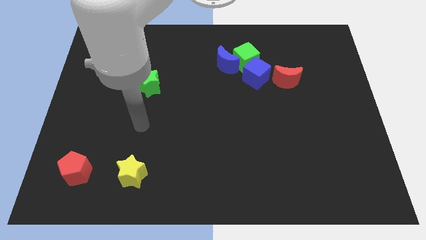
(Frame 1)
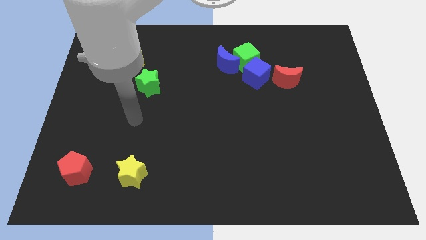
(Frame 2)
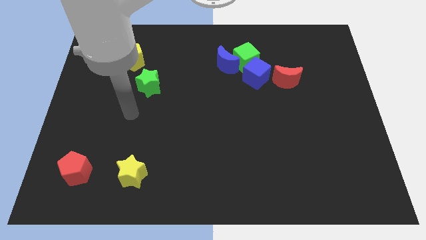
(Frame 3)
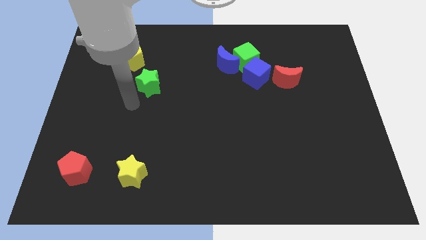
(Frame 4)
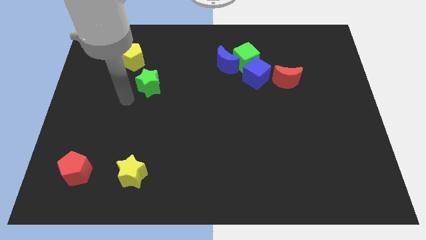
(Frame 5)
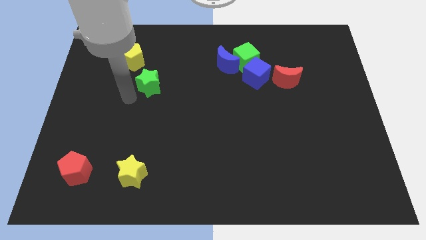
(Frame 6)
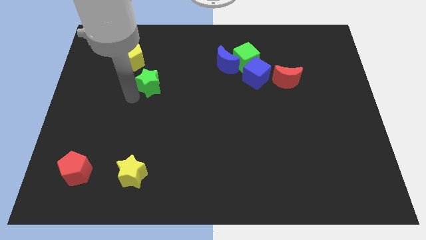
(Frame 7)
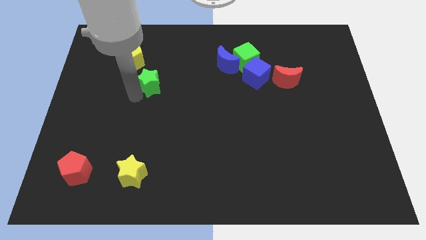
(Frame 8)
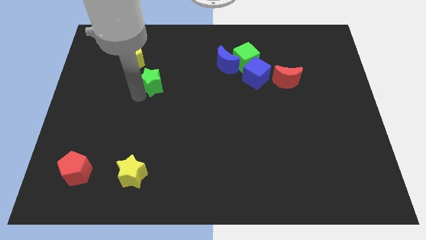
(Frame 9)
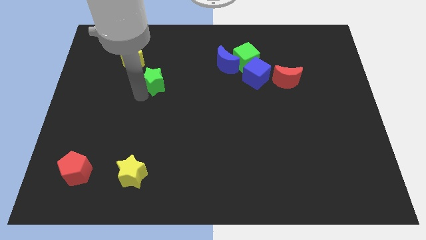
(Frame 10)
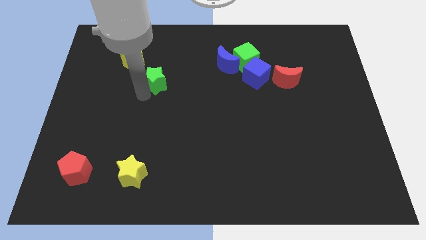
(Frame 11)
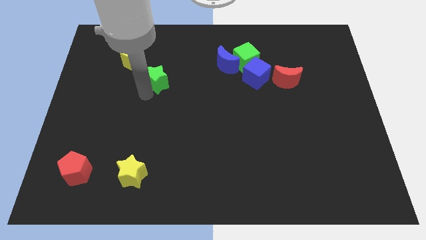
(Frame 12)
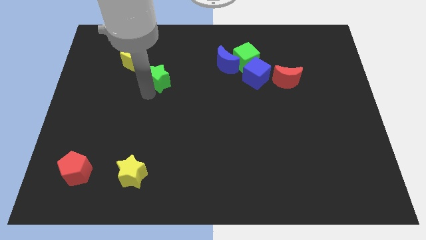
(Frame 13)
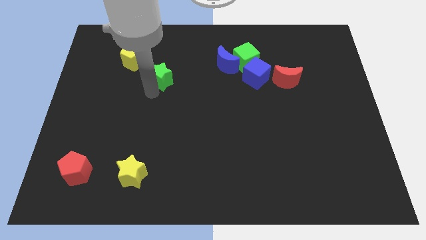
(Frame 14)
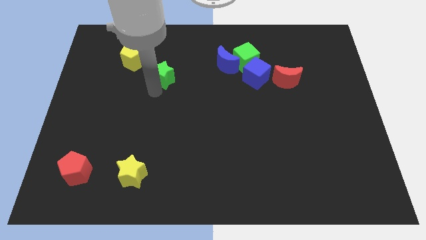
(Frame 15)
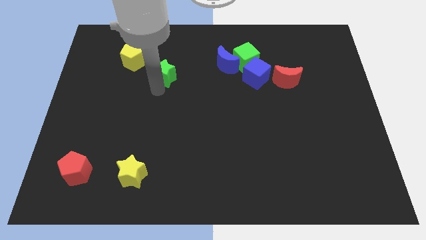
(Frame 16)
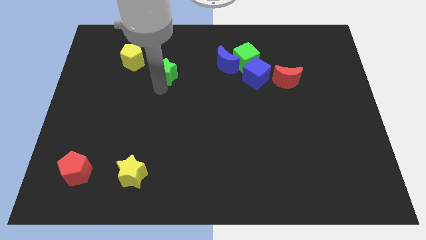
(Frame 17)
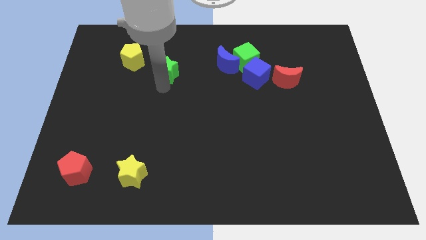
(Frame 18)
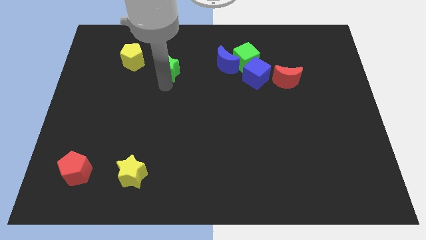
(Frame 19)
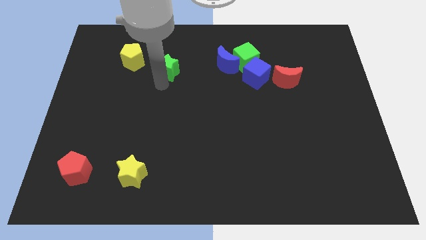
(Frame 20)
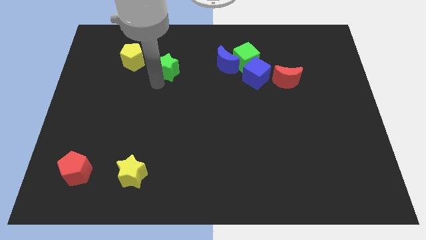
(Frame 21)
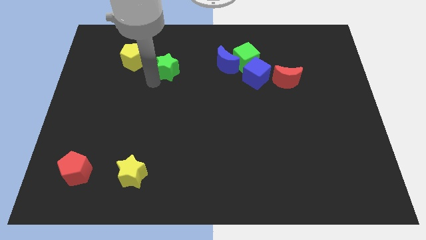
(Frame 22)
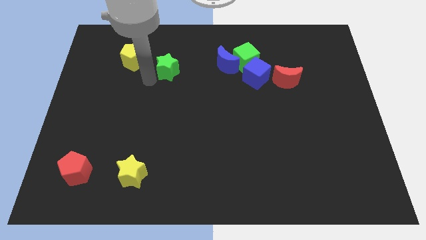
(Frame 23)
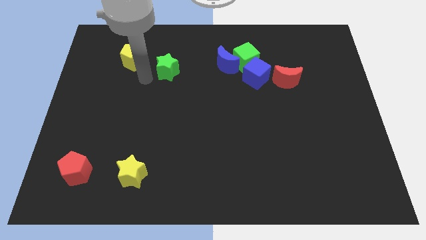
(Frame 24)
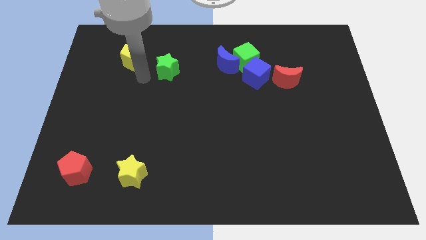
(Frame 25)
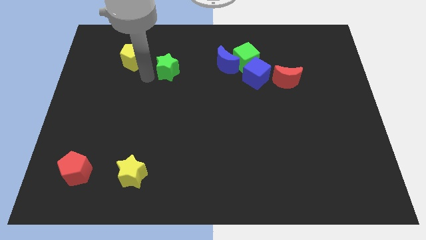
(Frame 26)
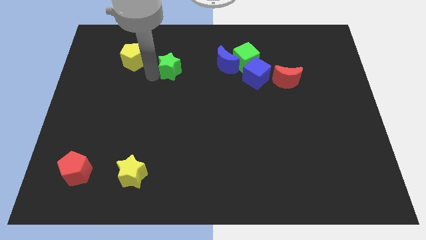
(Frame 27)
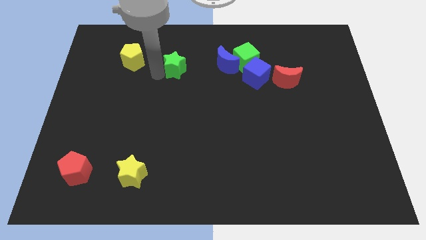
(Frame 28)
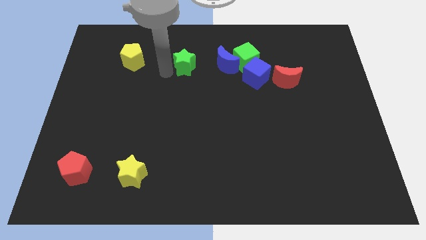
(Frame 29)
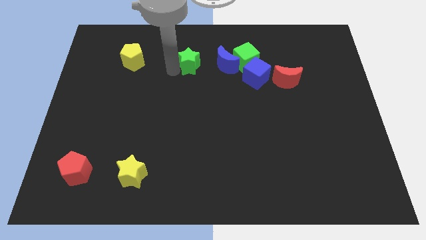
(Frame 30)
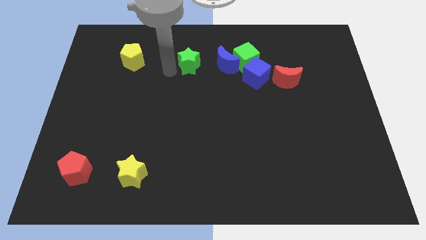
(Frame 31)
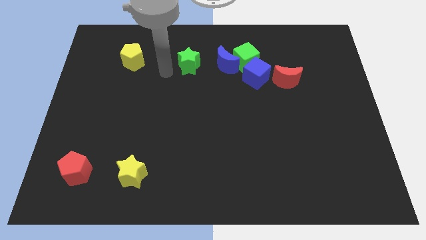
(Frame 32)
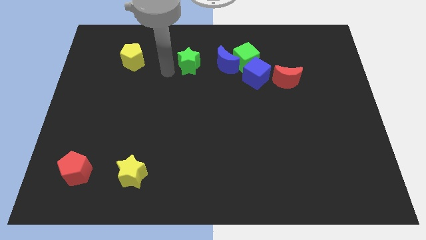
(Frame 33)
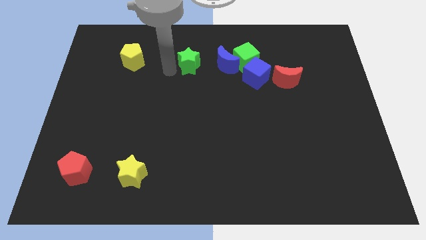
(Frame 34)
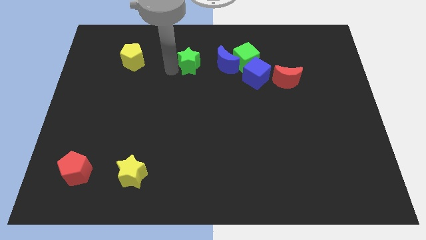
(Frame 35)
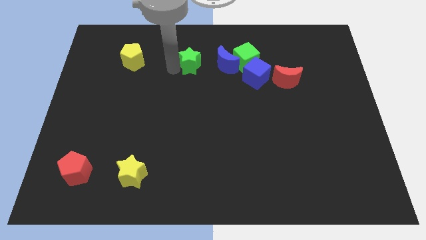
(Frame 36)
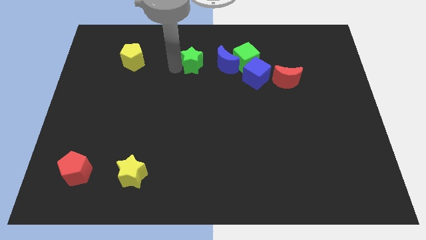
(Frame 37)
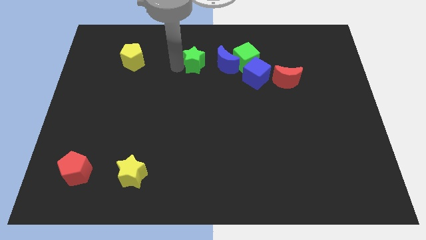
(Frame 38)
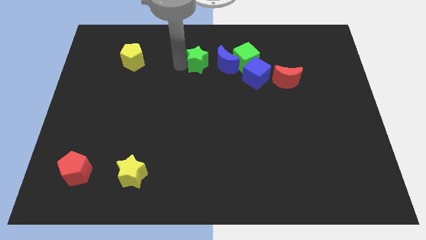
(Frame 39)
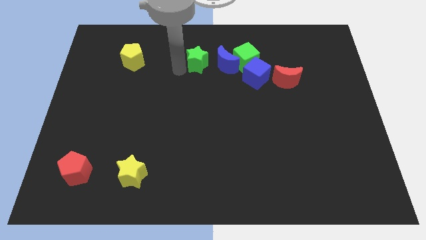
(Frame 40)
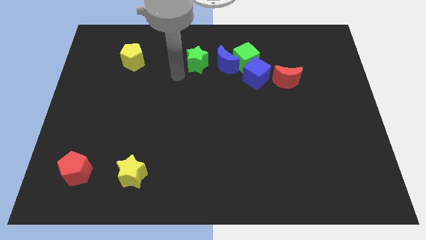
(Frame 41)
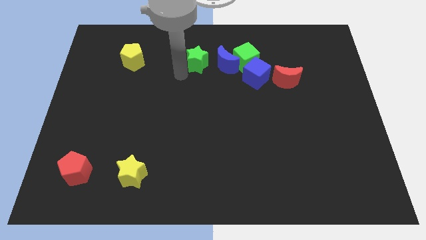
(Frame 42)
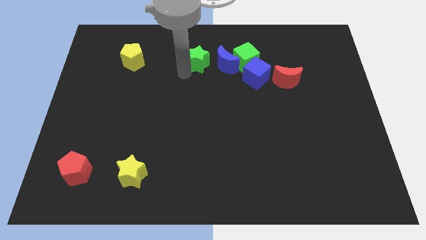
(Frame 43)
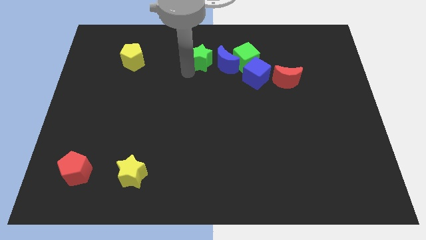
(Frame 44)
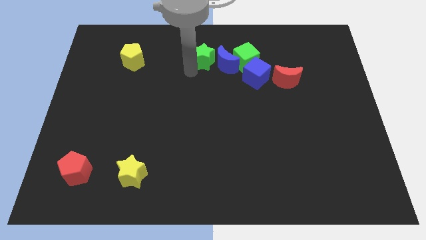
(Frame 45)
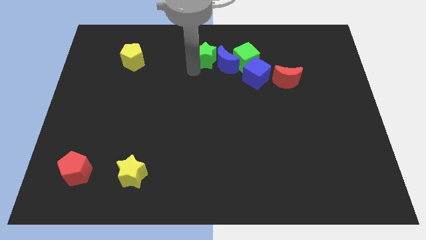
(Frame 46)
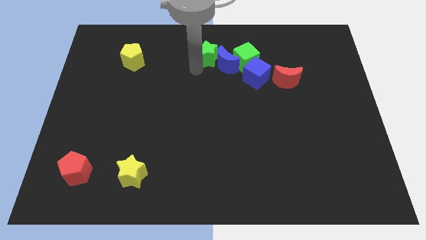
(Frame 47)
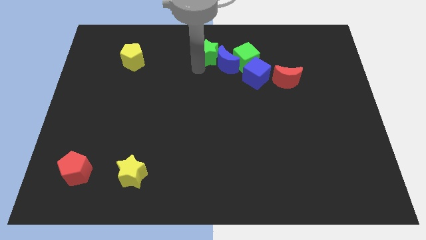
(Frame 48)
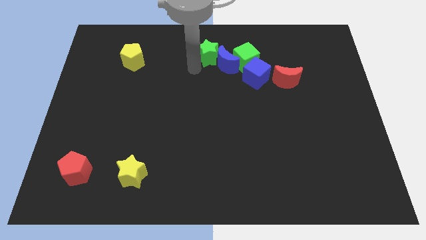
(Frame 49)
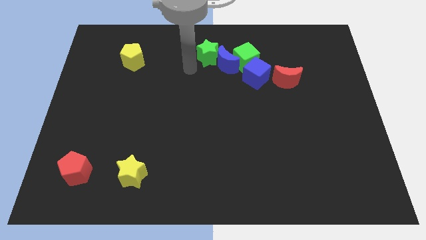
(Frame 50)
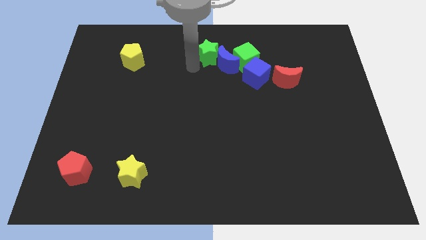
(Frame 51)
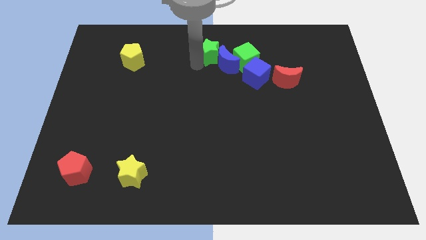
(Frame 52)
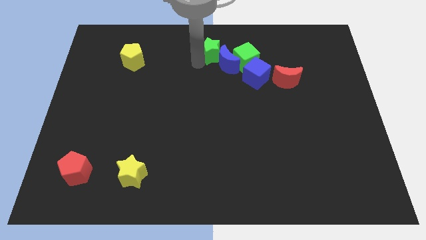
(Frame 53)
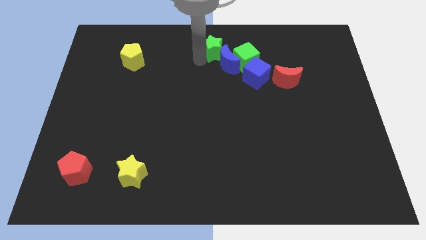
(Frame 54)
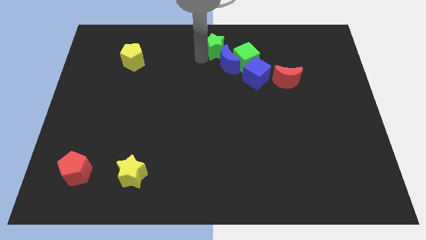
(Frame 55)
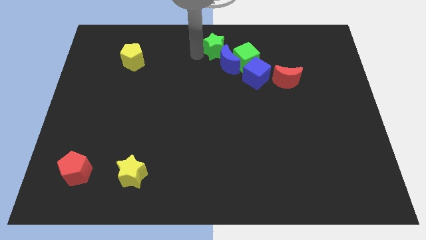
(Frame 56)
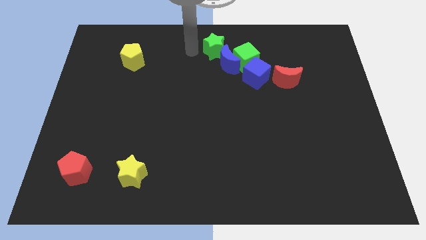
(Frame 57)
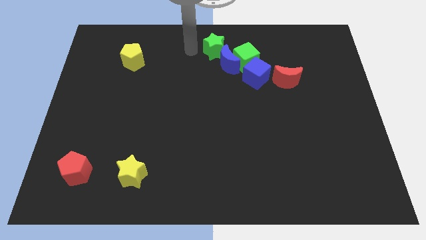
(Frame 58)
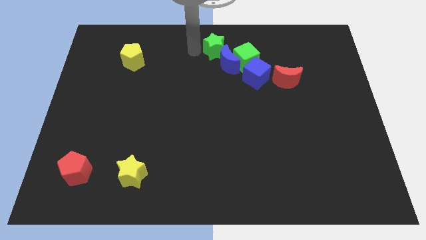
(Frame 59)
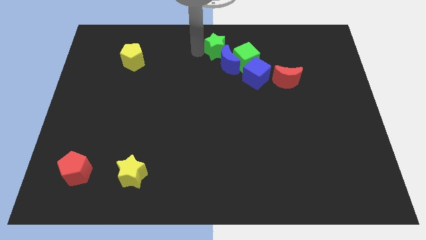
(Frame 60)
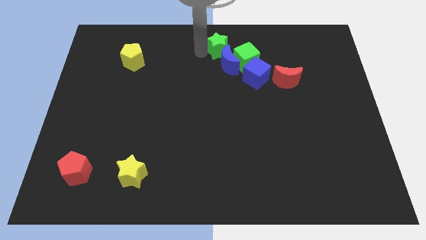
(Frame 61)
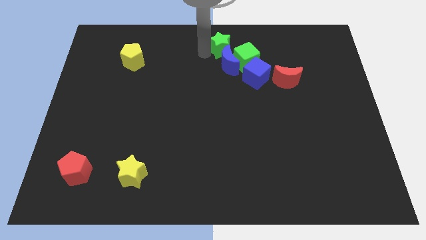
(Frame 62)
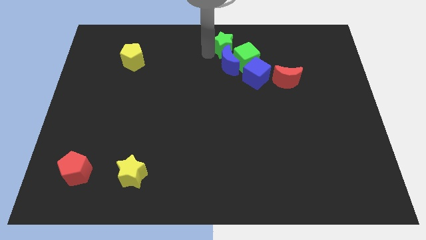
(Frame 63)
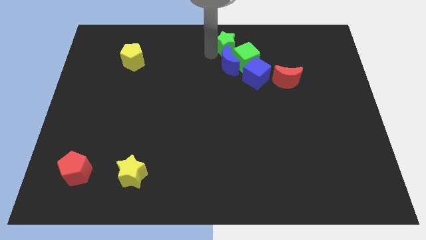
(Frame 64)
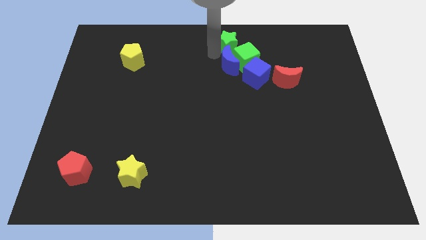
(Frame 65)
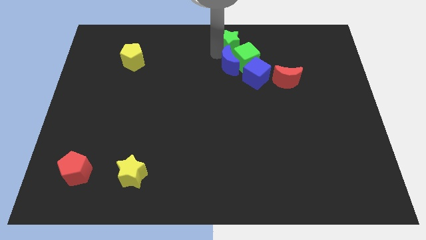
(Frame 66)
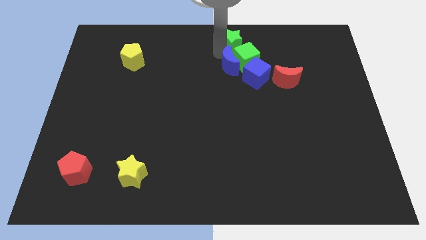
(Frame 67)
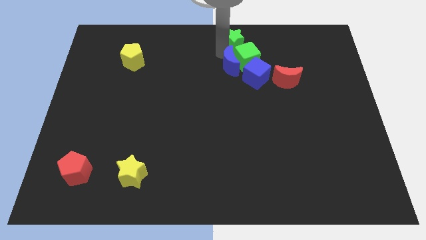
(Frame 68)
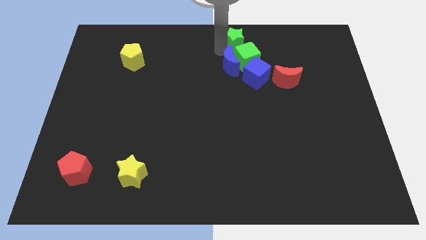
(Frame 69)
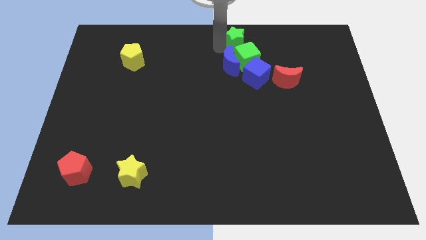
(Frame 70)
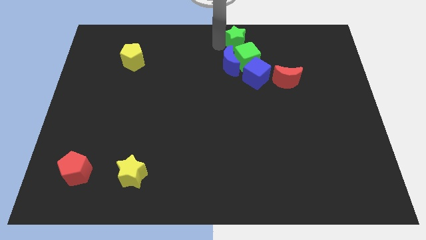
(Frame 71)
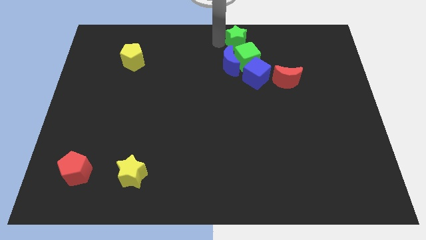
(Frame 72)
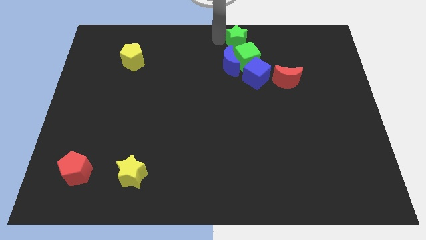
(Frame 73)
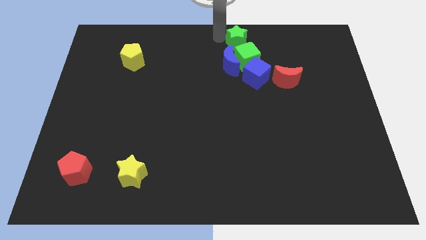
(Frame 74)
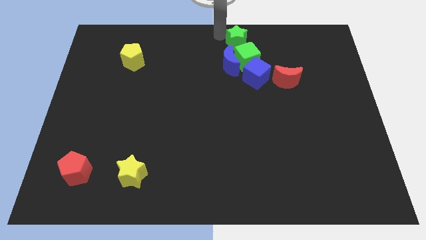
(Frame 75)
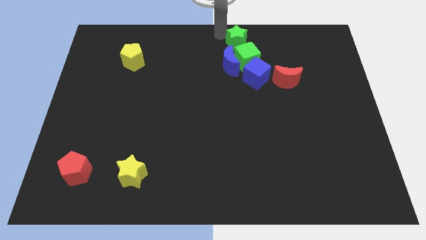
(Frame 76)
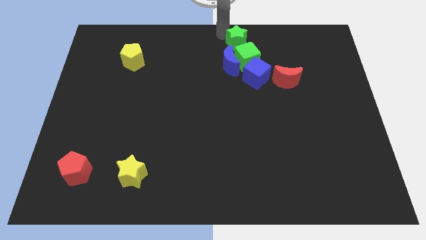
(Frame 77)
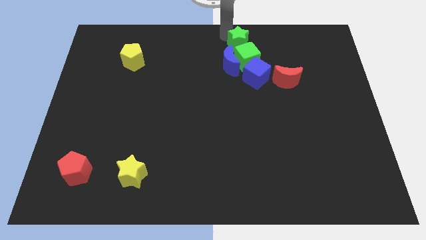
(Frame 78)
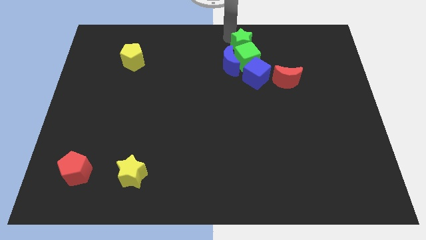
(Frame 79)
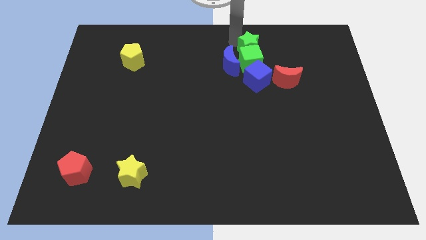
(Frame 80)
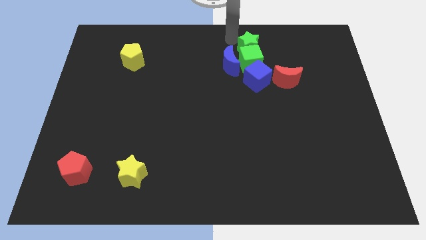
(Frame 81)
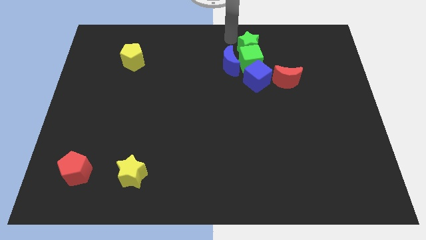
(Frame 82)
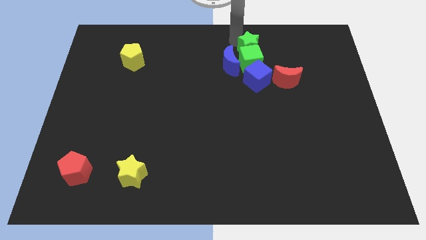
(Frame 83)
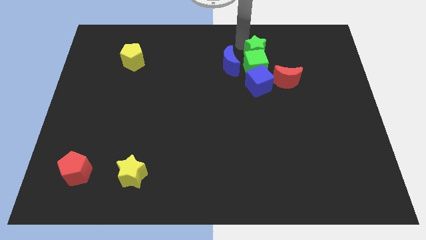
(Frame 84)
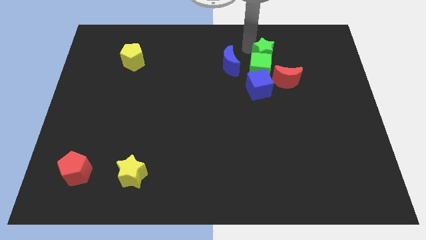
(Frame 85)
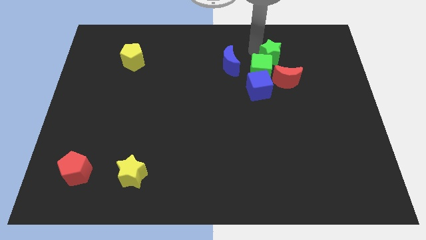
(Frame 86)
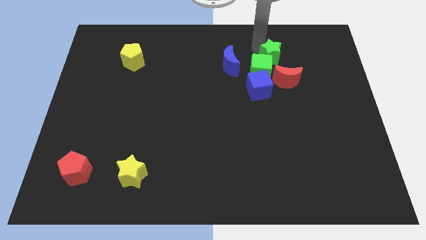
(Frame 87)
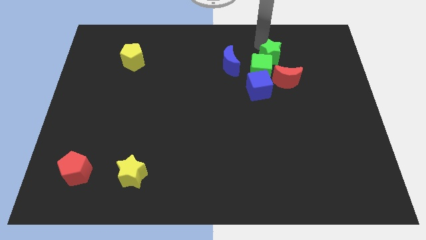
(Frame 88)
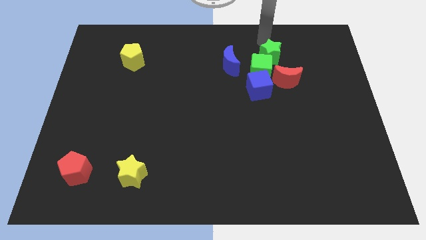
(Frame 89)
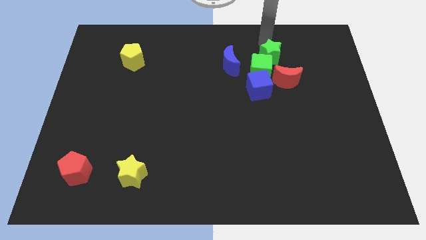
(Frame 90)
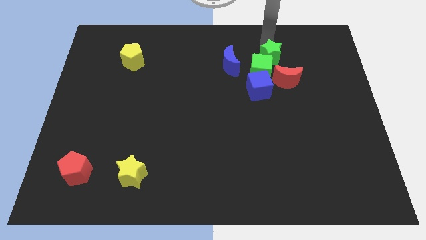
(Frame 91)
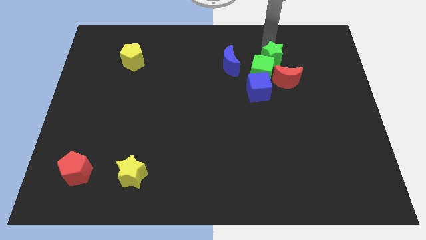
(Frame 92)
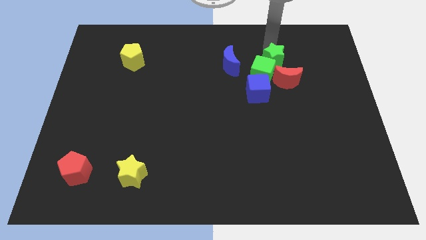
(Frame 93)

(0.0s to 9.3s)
slide the green star to the top right side of the blue cube
